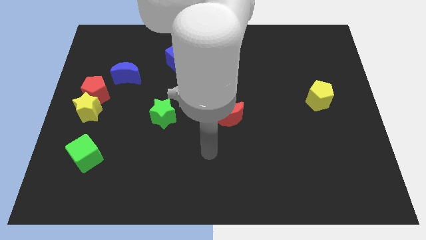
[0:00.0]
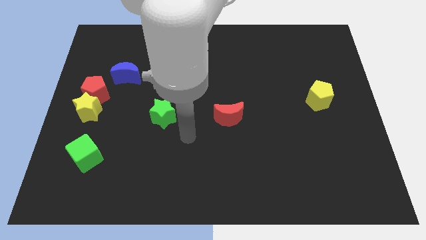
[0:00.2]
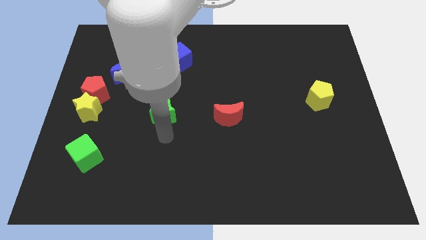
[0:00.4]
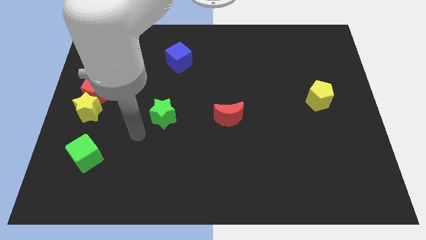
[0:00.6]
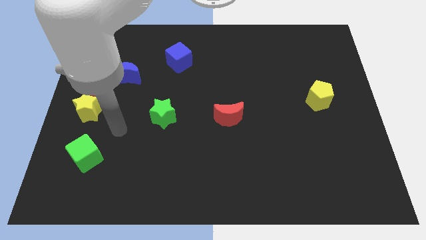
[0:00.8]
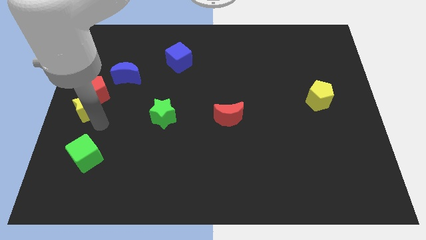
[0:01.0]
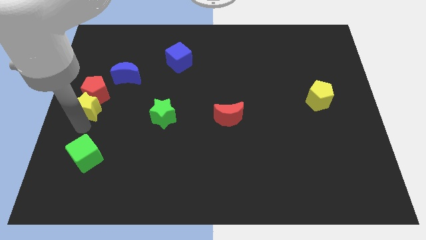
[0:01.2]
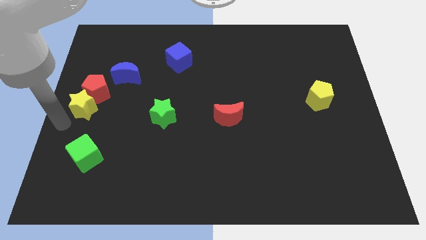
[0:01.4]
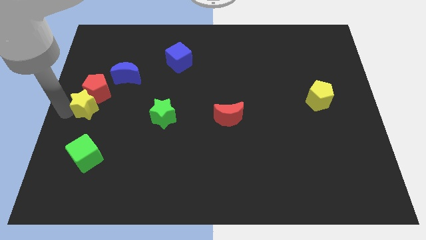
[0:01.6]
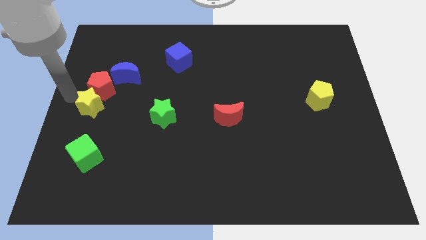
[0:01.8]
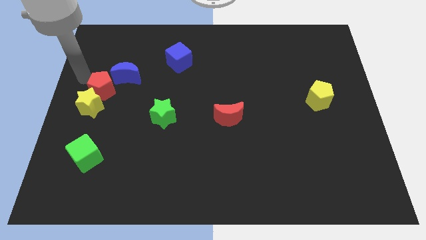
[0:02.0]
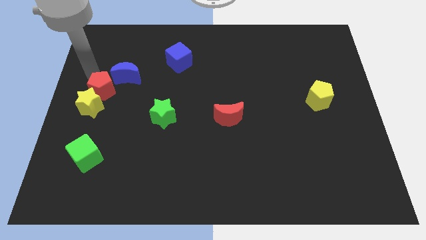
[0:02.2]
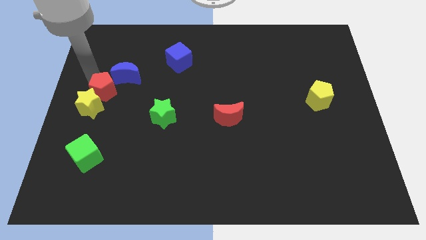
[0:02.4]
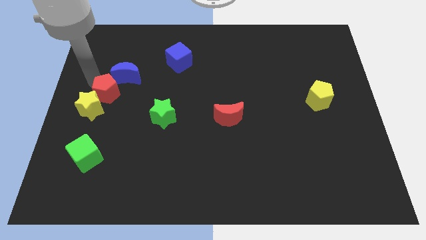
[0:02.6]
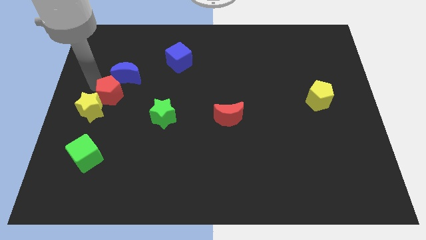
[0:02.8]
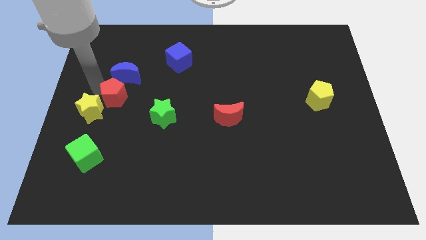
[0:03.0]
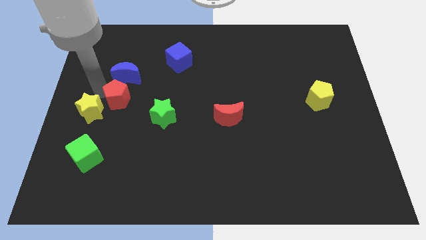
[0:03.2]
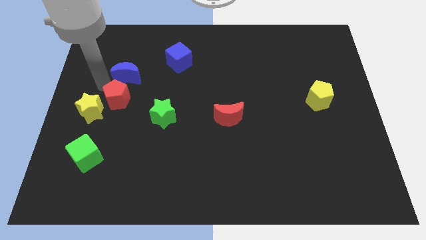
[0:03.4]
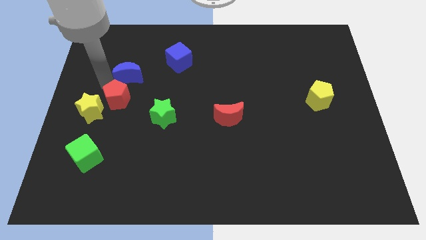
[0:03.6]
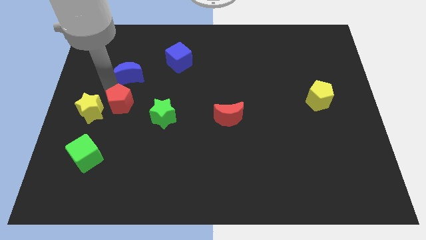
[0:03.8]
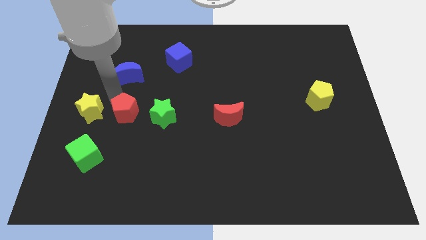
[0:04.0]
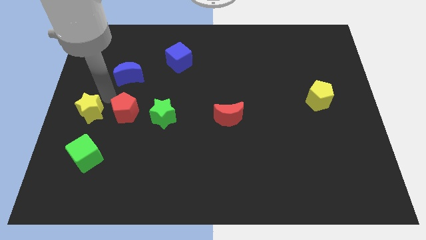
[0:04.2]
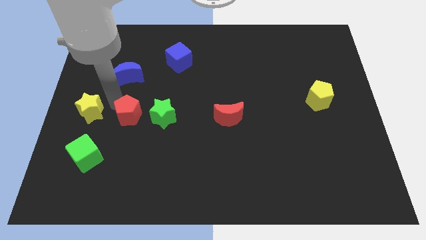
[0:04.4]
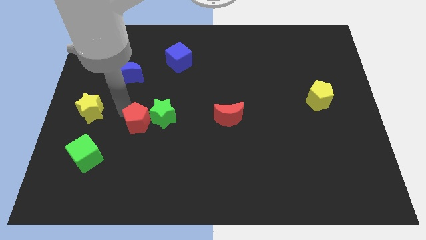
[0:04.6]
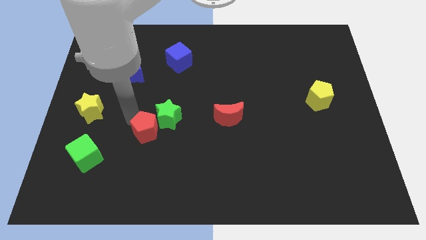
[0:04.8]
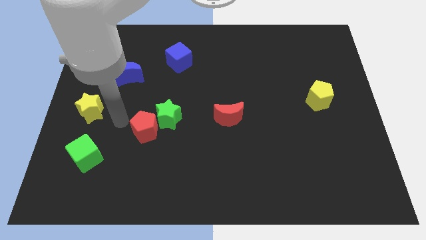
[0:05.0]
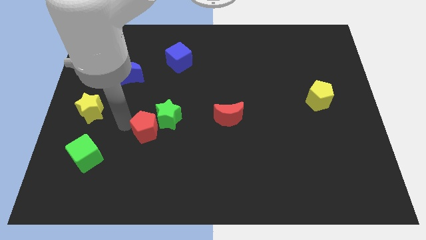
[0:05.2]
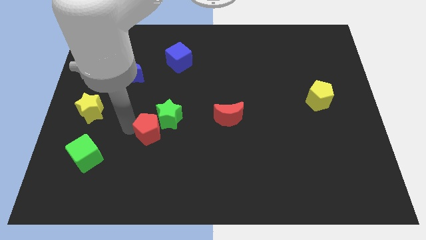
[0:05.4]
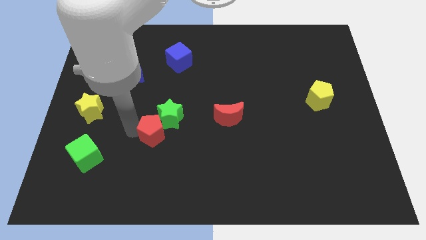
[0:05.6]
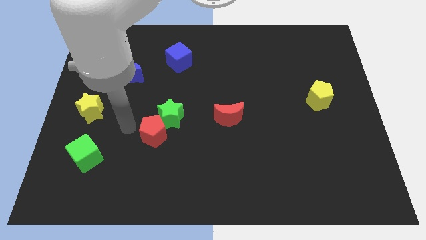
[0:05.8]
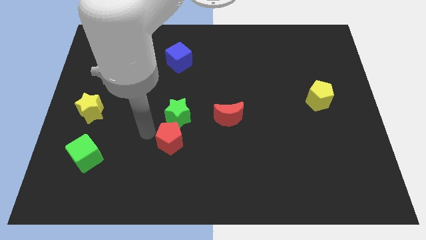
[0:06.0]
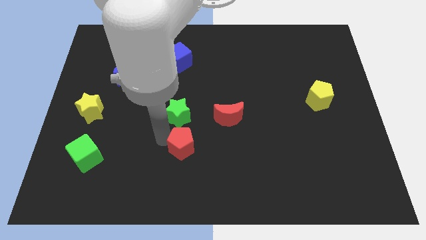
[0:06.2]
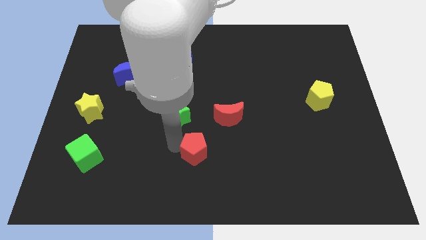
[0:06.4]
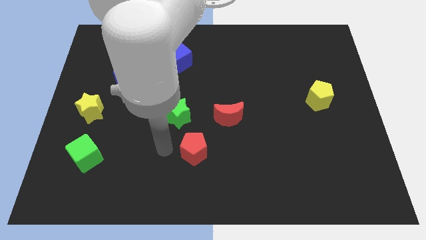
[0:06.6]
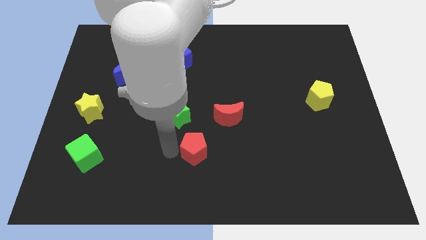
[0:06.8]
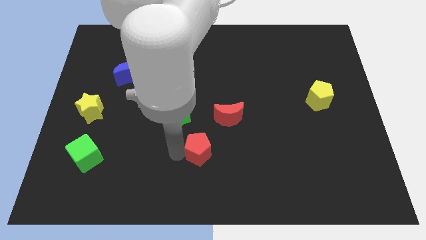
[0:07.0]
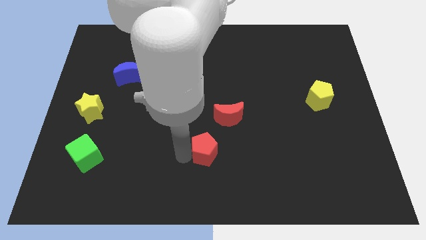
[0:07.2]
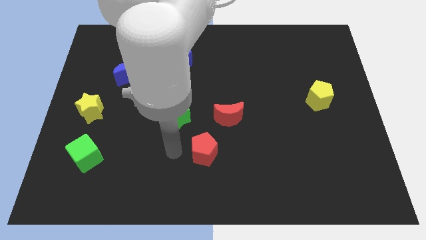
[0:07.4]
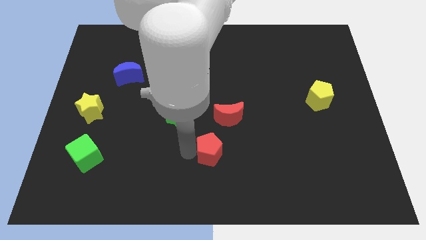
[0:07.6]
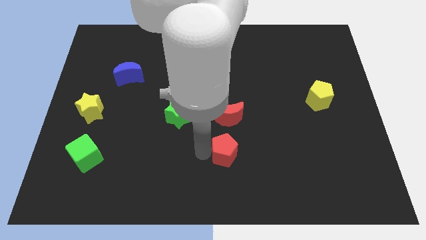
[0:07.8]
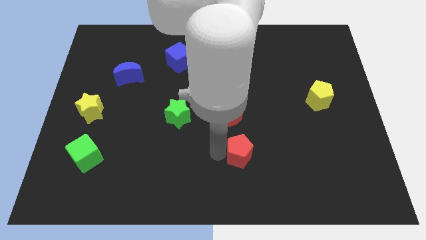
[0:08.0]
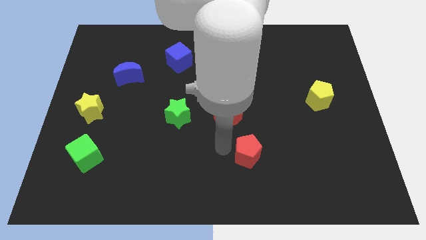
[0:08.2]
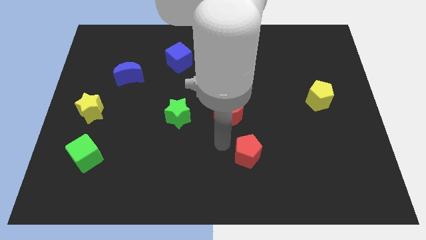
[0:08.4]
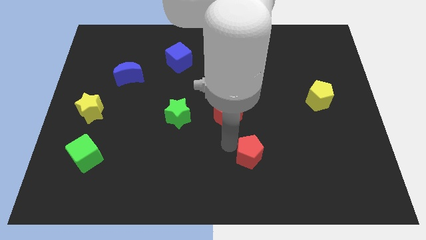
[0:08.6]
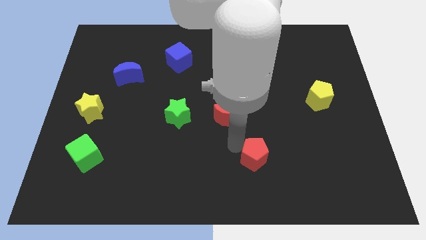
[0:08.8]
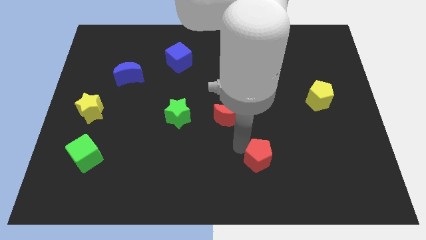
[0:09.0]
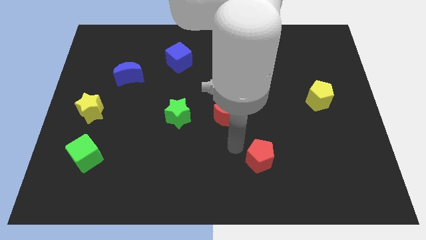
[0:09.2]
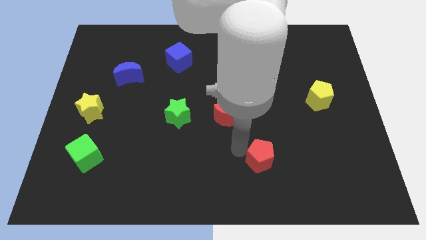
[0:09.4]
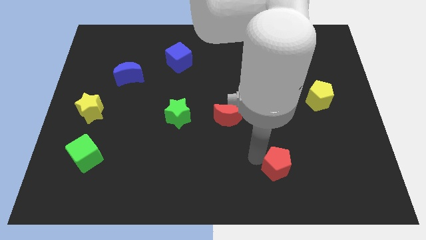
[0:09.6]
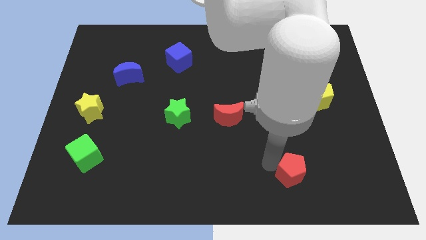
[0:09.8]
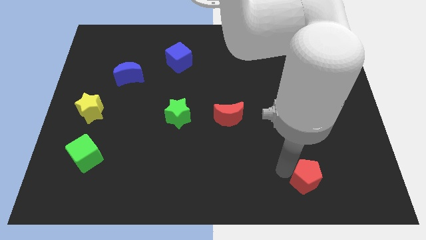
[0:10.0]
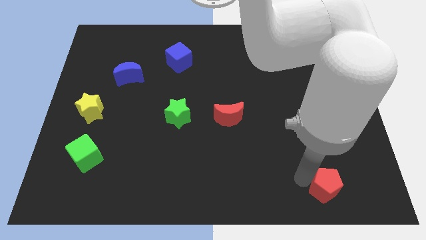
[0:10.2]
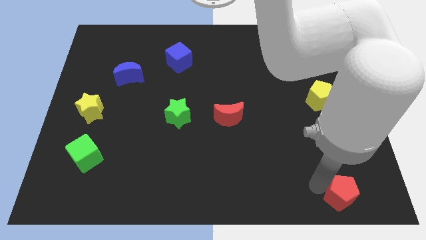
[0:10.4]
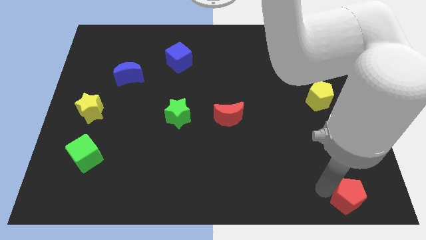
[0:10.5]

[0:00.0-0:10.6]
move the red pentagon to the bottom right
